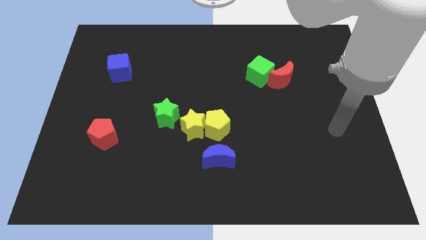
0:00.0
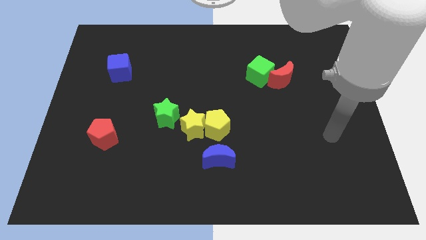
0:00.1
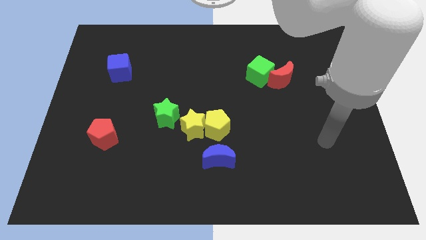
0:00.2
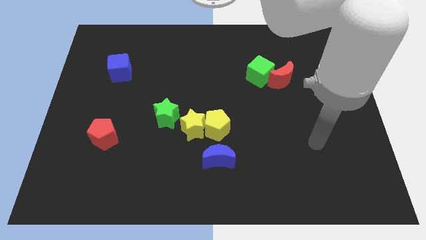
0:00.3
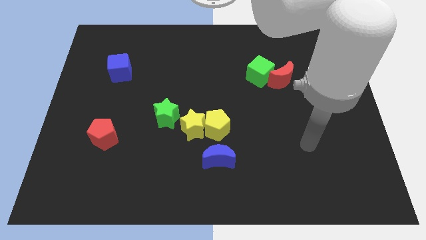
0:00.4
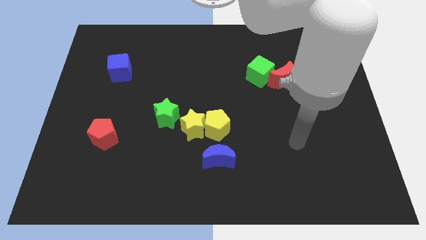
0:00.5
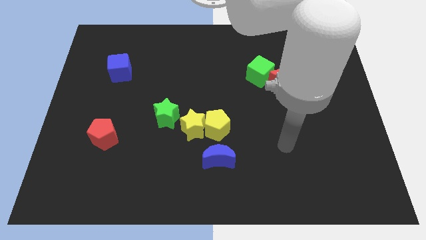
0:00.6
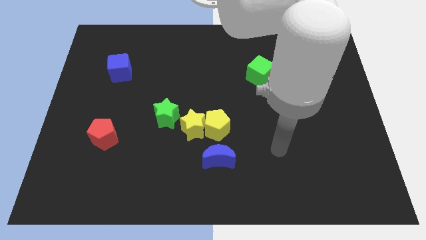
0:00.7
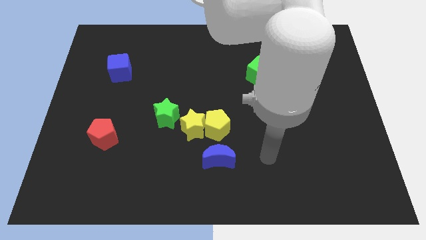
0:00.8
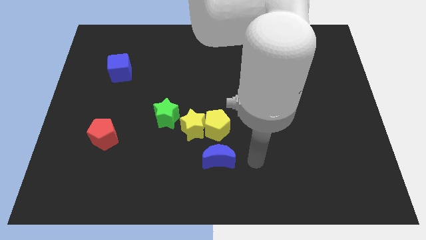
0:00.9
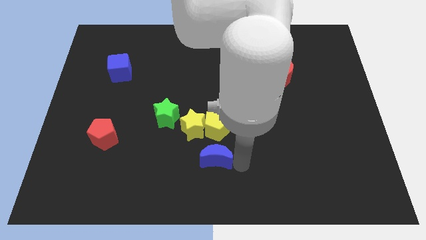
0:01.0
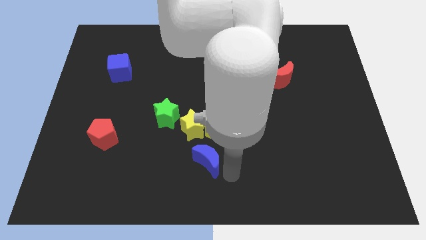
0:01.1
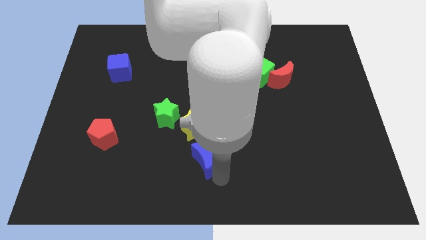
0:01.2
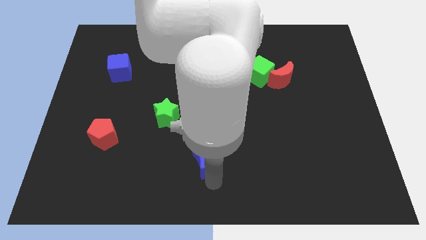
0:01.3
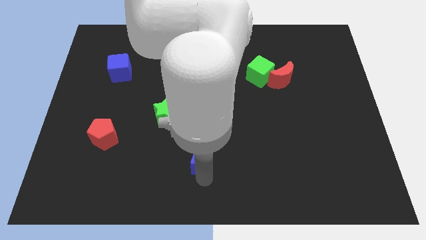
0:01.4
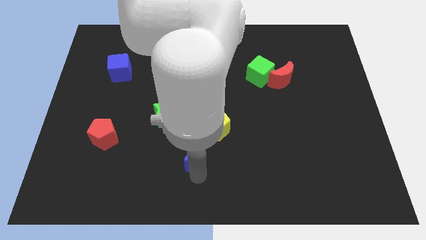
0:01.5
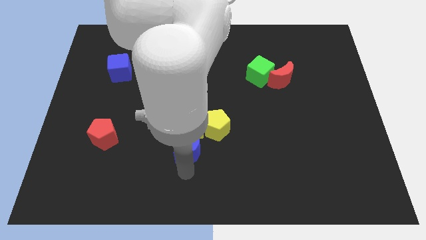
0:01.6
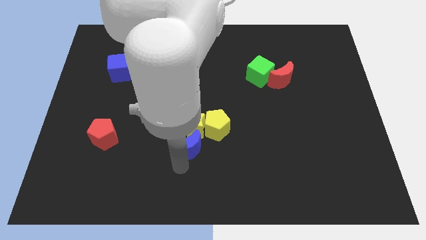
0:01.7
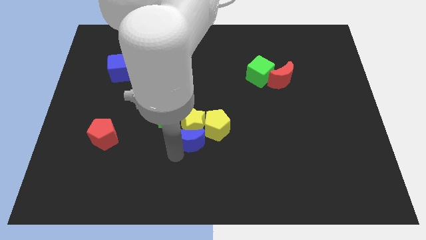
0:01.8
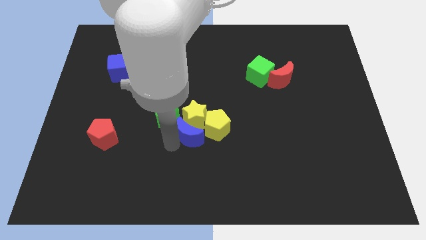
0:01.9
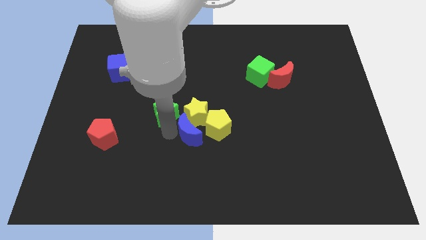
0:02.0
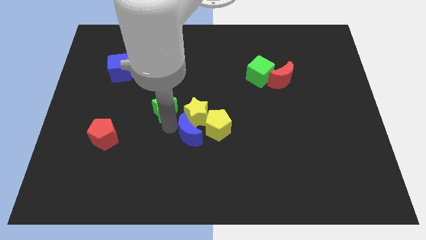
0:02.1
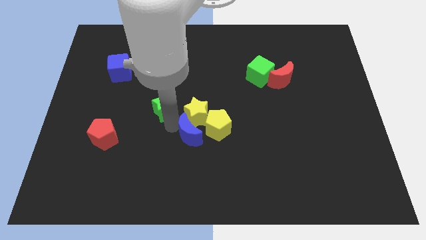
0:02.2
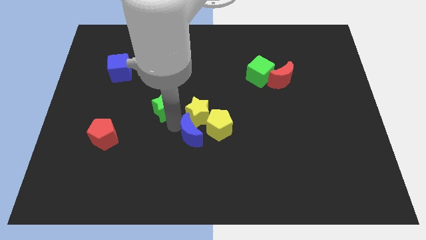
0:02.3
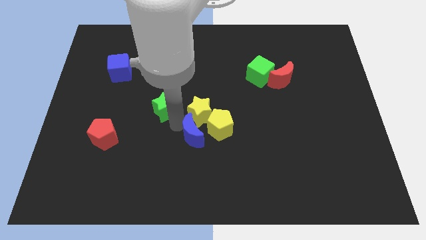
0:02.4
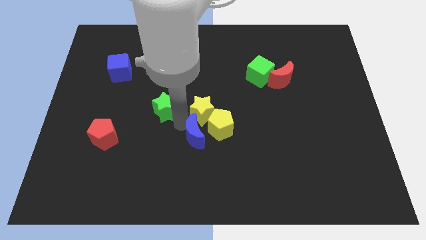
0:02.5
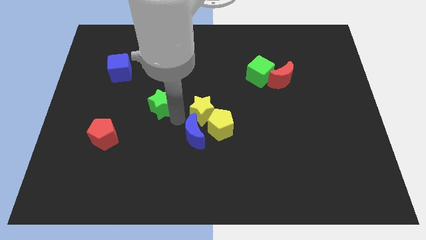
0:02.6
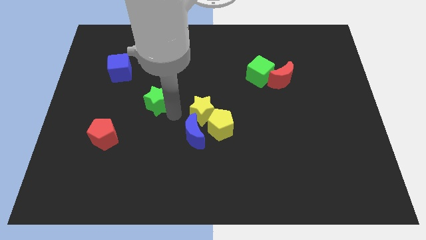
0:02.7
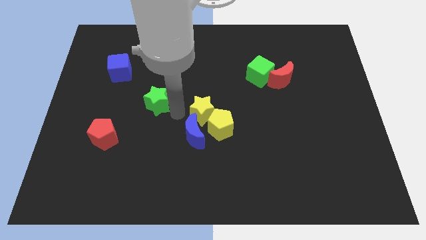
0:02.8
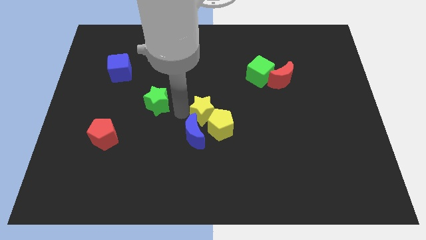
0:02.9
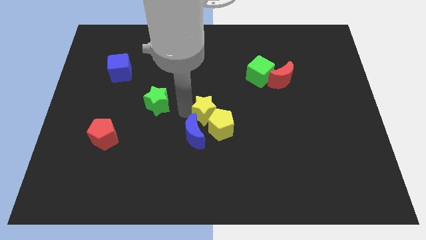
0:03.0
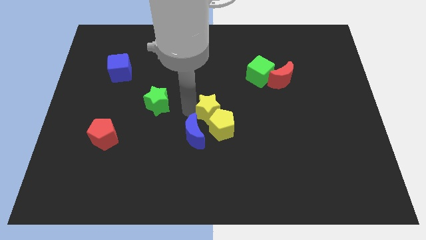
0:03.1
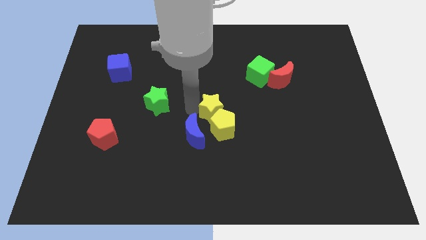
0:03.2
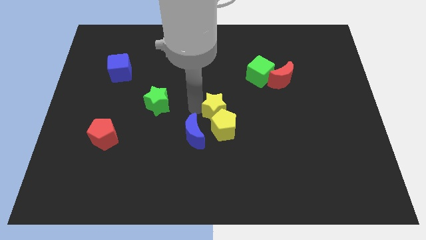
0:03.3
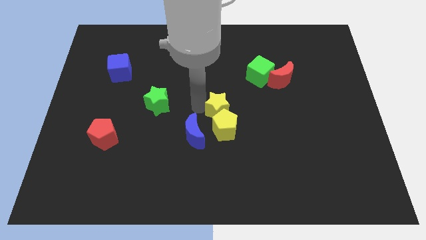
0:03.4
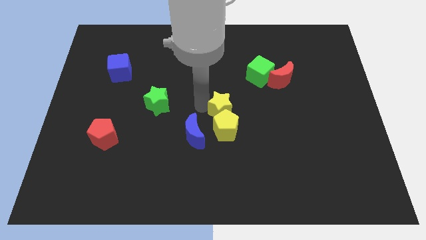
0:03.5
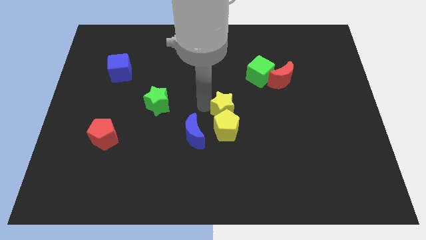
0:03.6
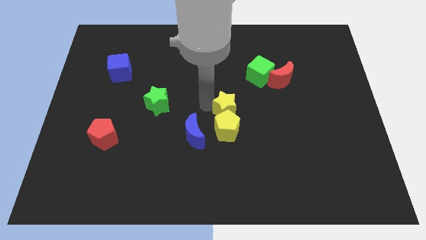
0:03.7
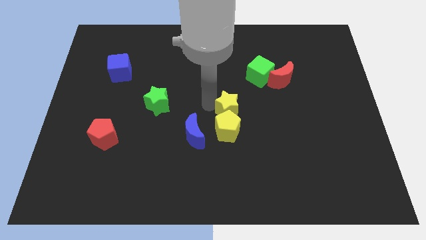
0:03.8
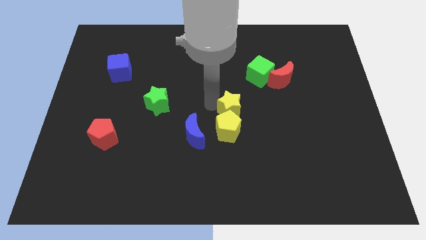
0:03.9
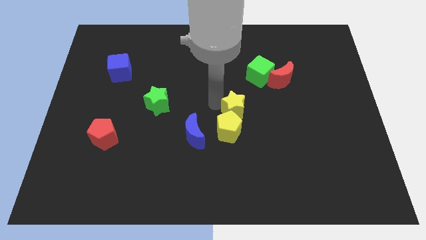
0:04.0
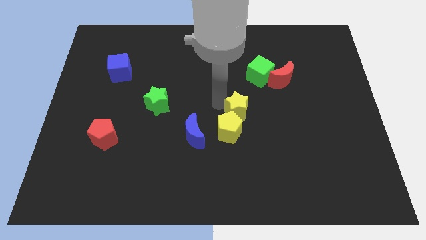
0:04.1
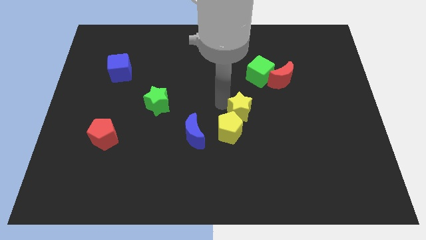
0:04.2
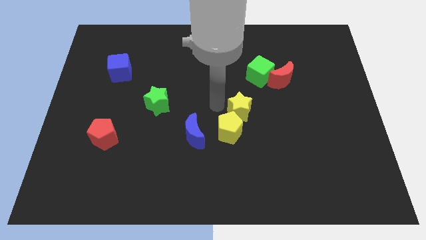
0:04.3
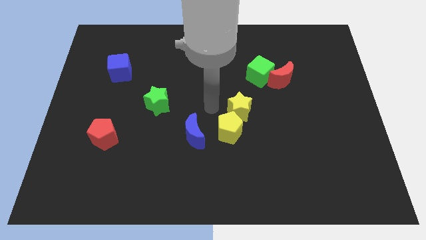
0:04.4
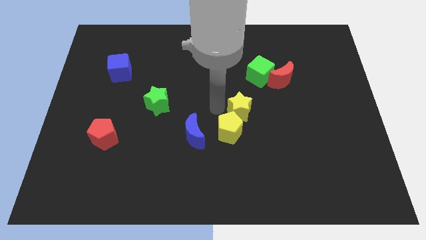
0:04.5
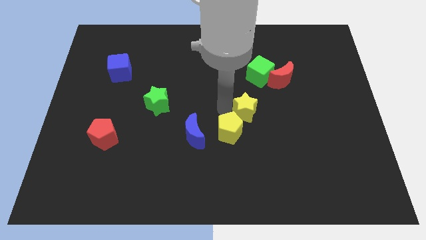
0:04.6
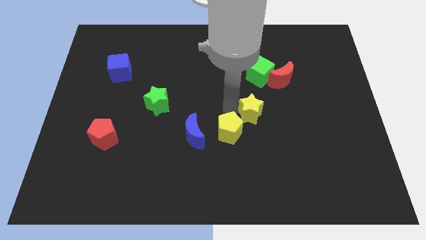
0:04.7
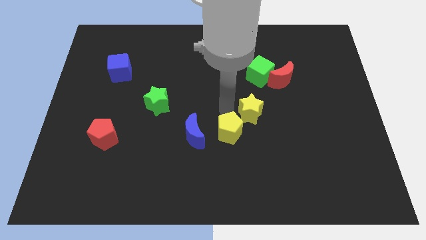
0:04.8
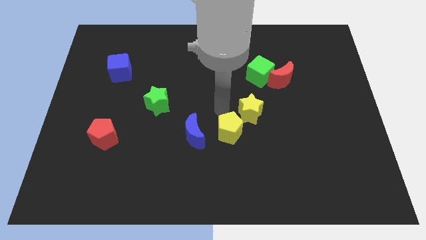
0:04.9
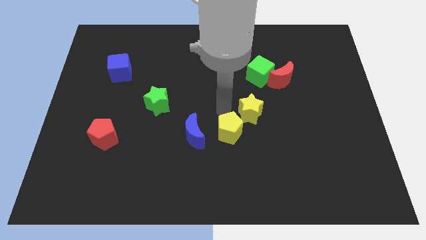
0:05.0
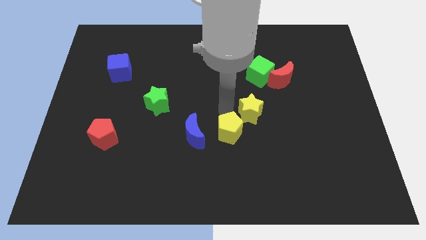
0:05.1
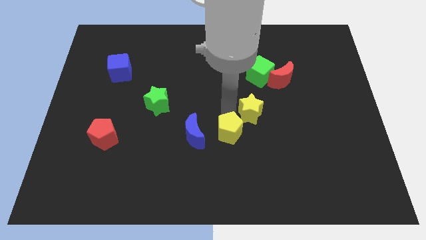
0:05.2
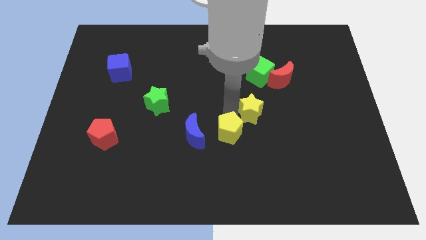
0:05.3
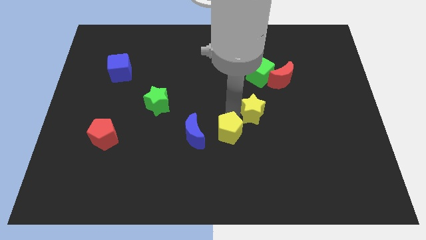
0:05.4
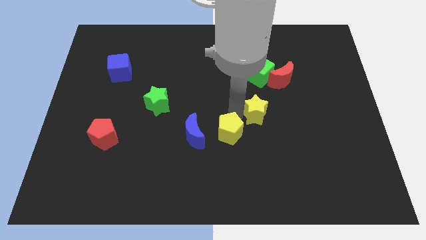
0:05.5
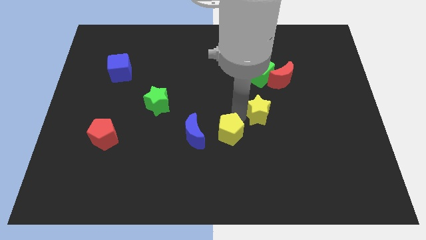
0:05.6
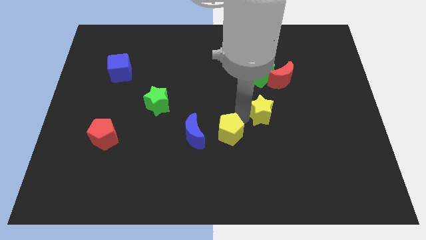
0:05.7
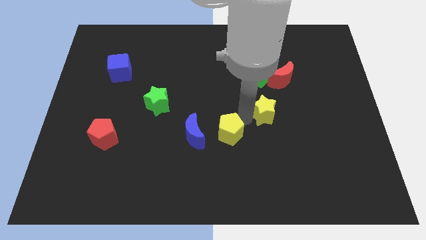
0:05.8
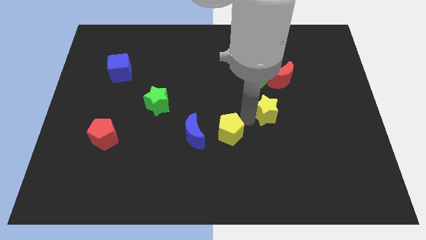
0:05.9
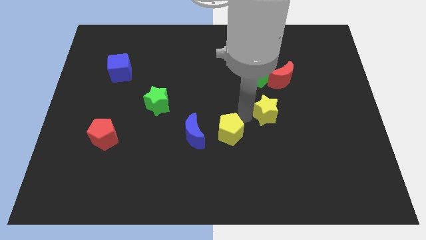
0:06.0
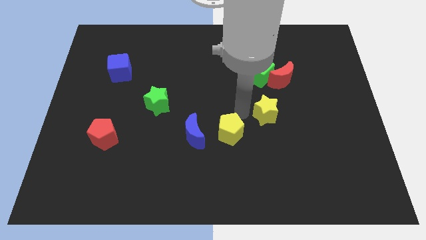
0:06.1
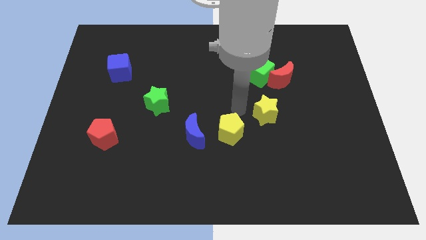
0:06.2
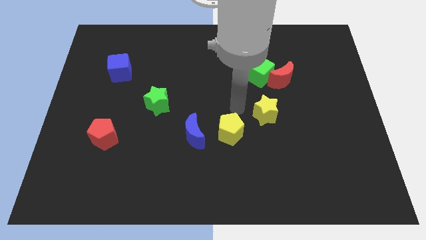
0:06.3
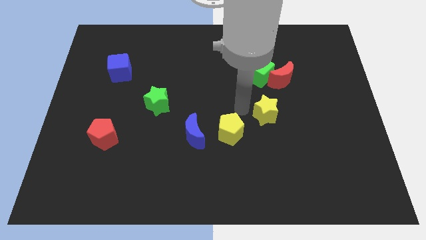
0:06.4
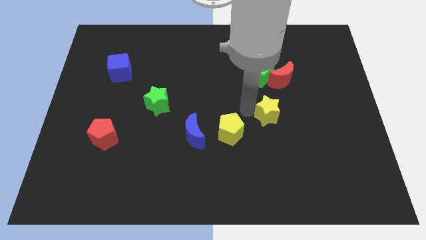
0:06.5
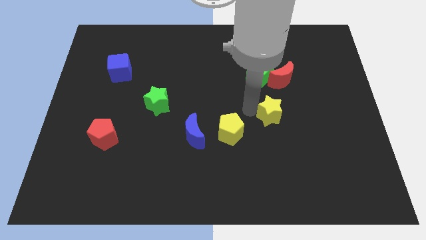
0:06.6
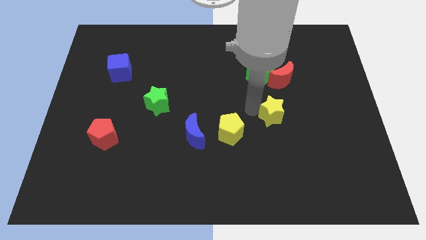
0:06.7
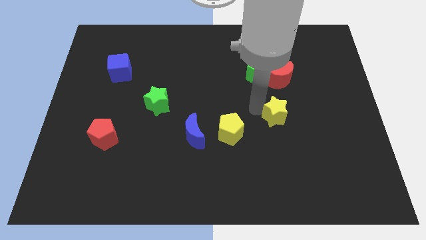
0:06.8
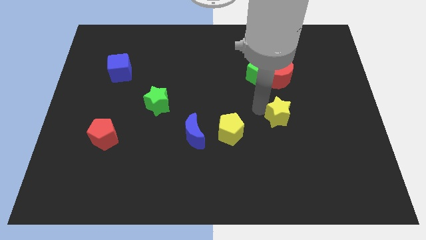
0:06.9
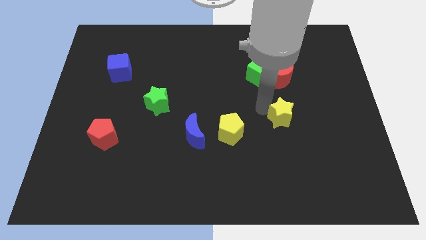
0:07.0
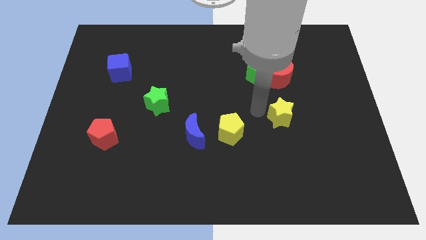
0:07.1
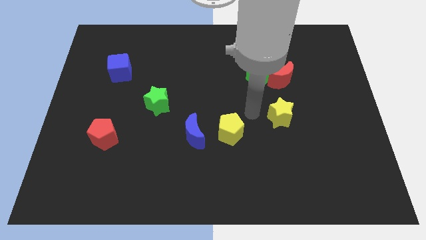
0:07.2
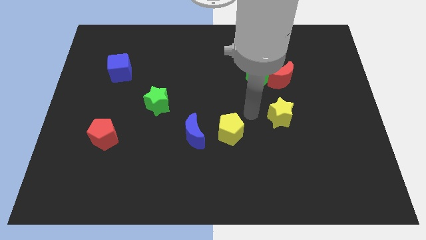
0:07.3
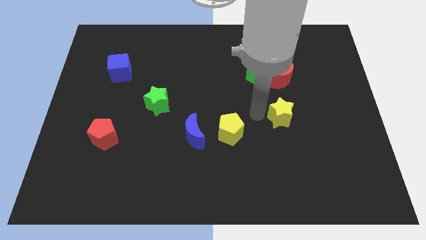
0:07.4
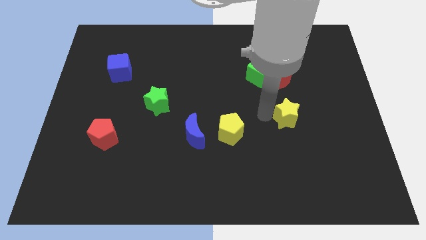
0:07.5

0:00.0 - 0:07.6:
push the yellow star right

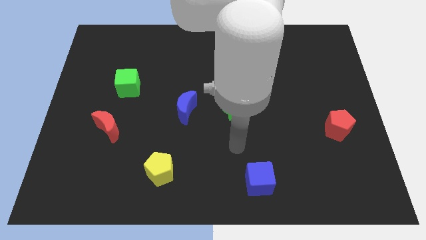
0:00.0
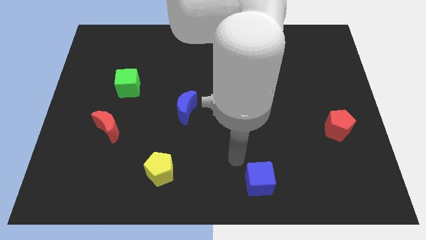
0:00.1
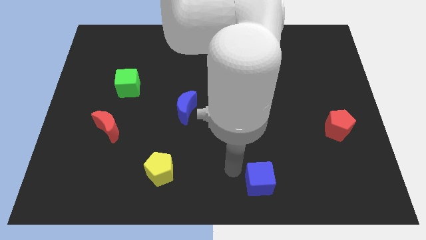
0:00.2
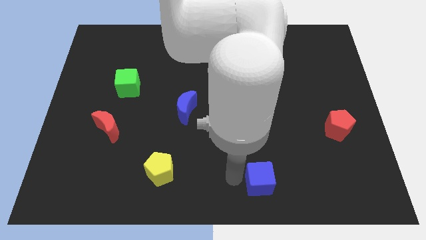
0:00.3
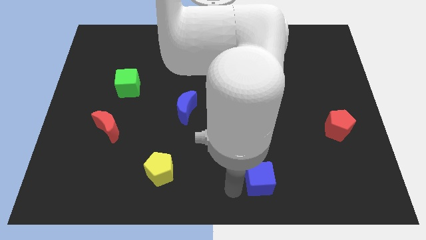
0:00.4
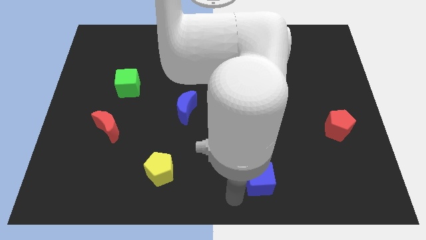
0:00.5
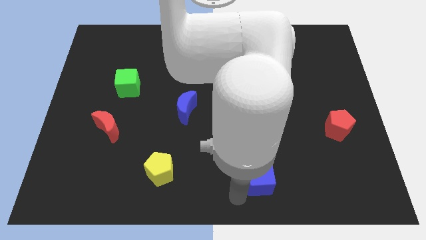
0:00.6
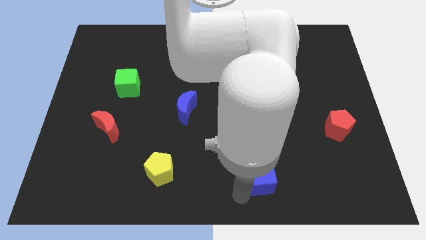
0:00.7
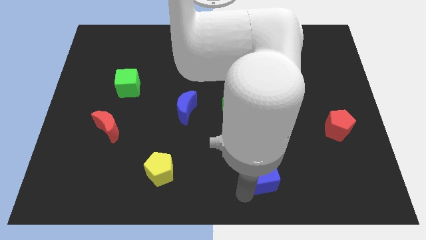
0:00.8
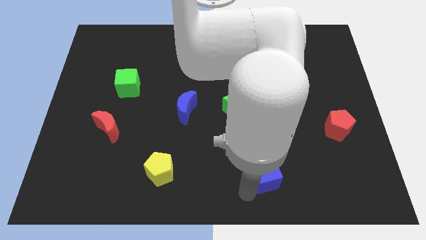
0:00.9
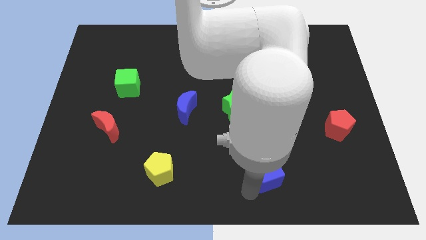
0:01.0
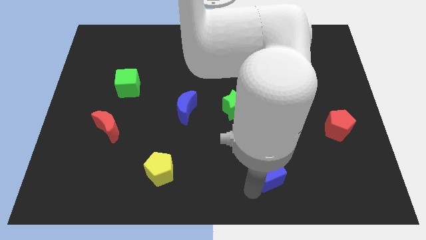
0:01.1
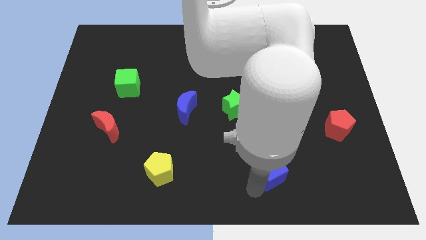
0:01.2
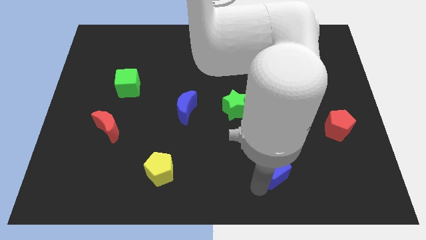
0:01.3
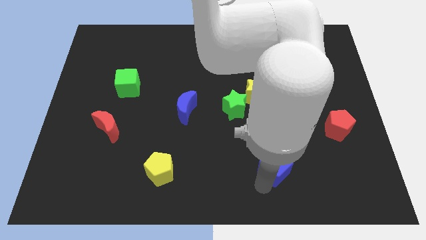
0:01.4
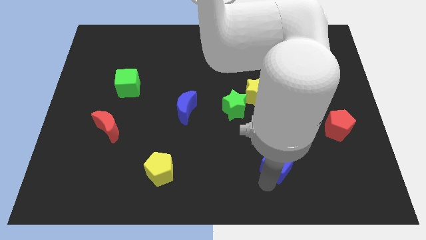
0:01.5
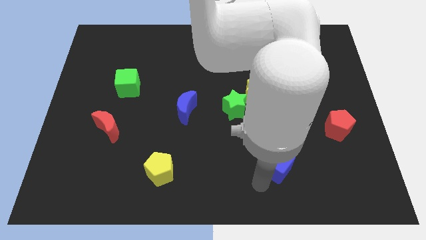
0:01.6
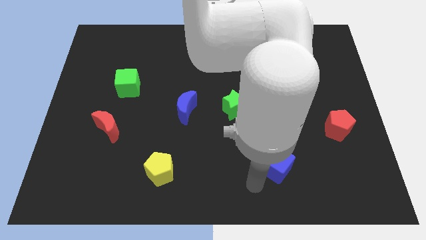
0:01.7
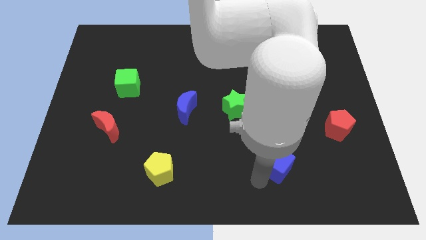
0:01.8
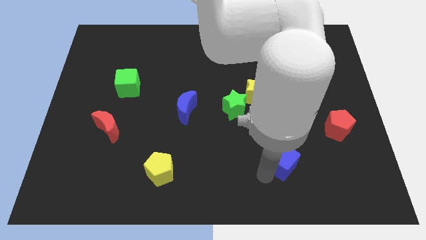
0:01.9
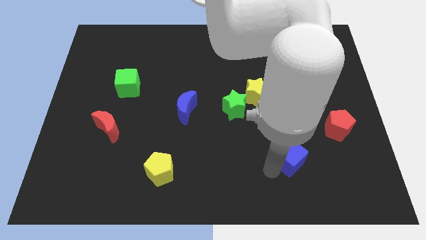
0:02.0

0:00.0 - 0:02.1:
move the blue cube upwards and to the right a little
